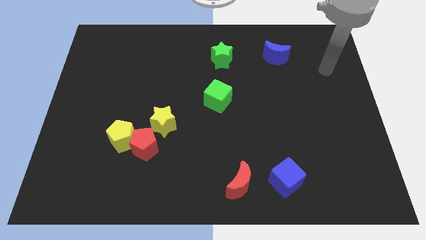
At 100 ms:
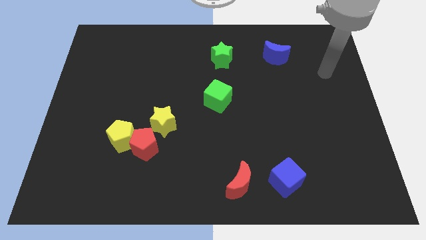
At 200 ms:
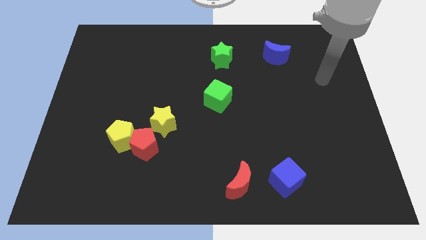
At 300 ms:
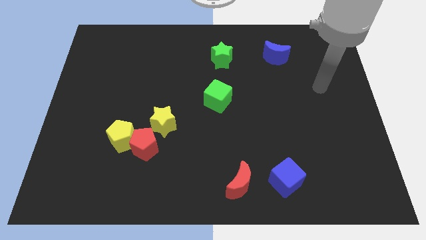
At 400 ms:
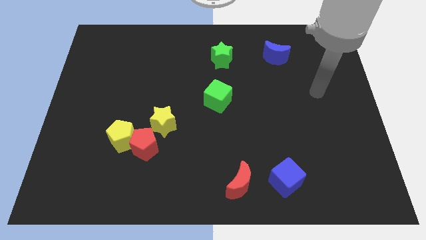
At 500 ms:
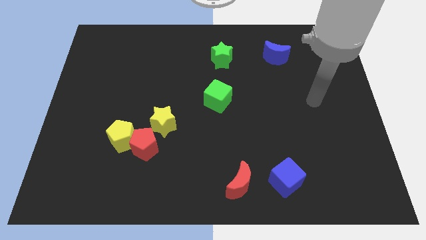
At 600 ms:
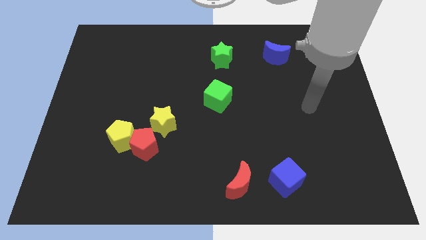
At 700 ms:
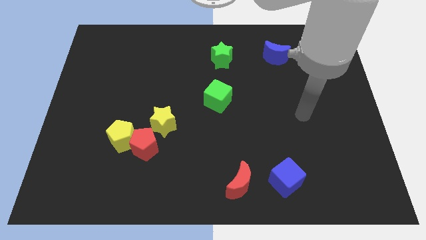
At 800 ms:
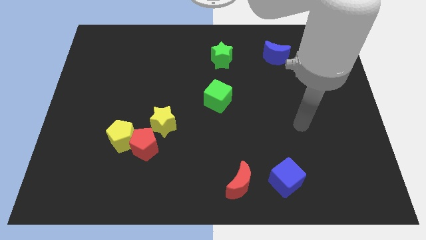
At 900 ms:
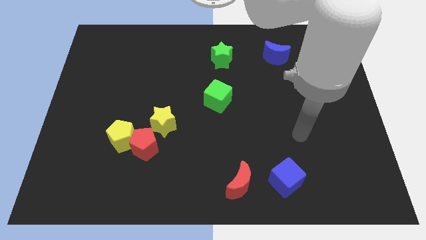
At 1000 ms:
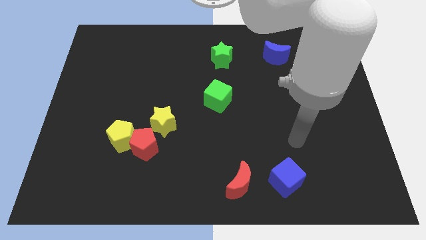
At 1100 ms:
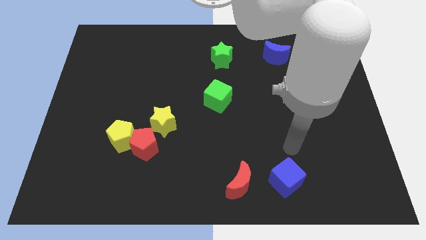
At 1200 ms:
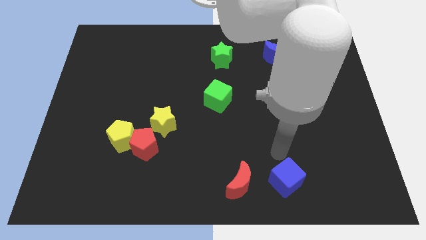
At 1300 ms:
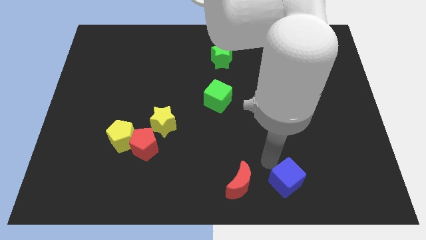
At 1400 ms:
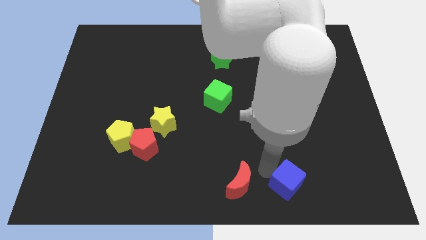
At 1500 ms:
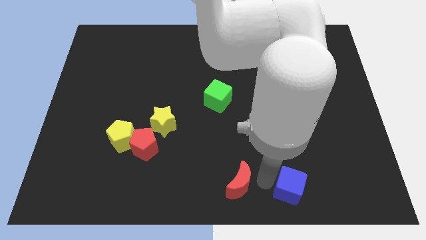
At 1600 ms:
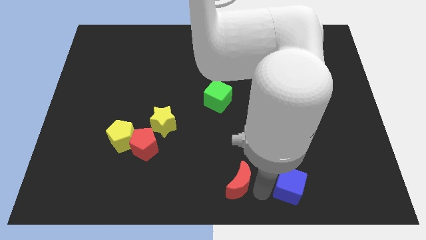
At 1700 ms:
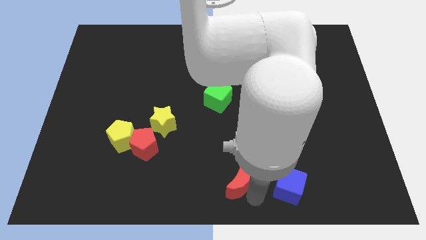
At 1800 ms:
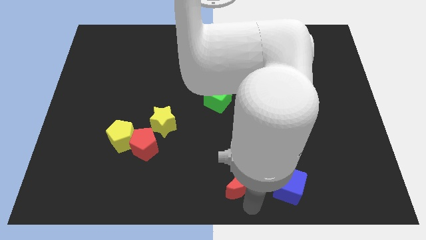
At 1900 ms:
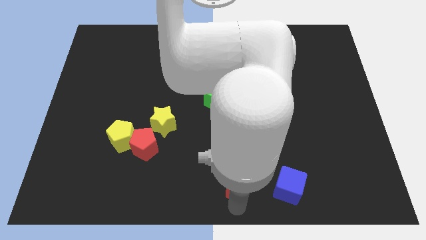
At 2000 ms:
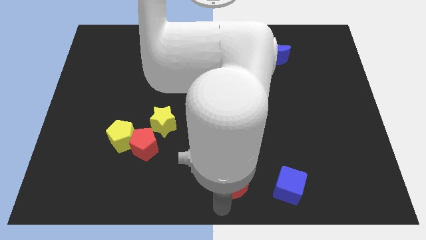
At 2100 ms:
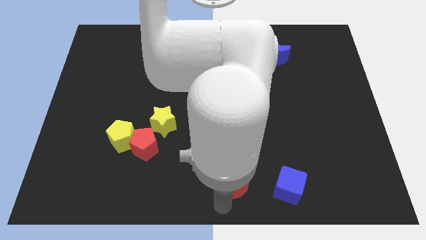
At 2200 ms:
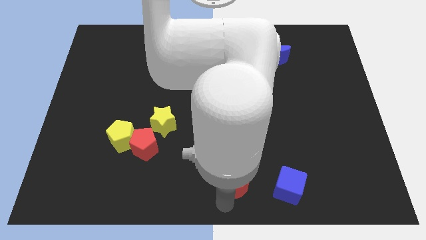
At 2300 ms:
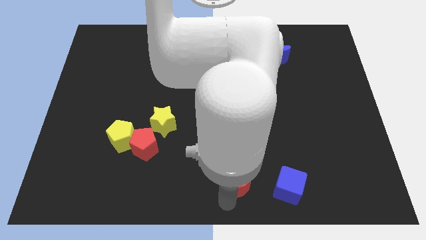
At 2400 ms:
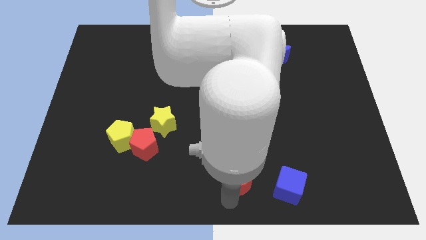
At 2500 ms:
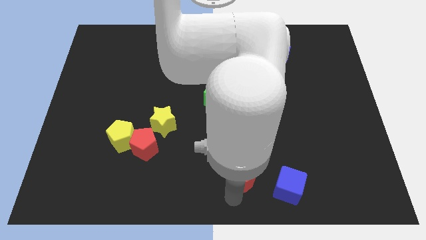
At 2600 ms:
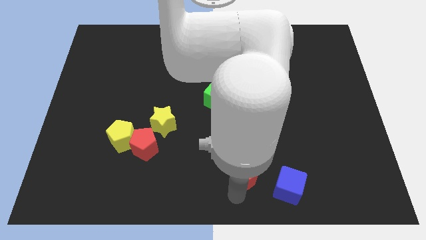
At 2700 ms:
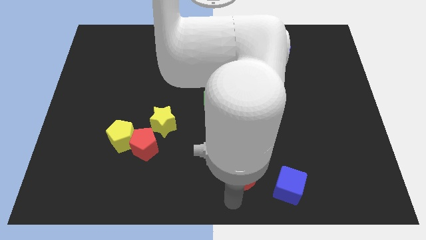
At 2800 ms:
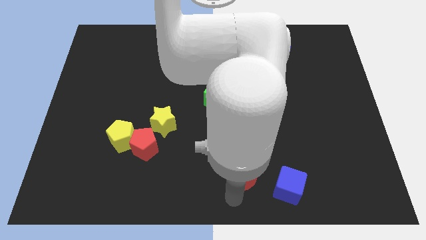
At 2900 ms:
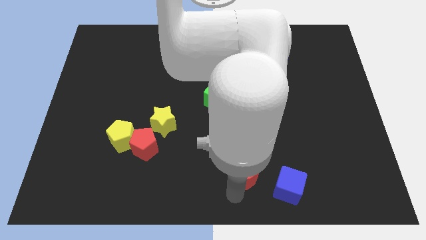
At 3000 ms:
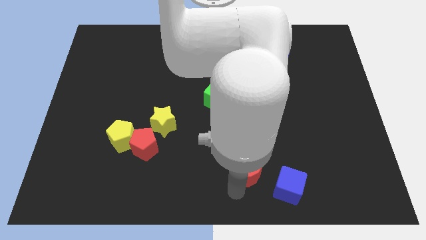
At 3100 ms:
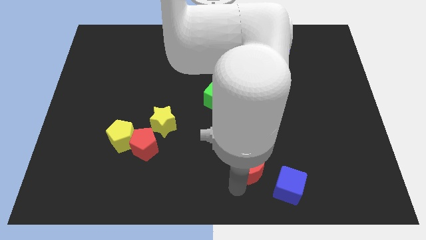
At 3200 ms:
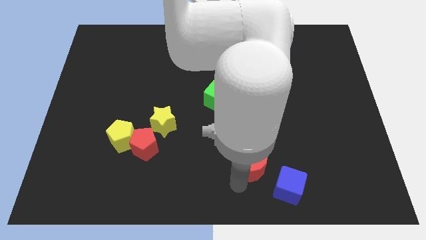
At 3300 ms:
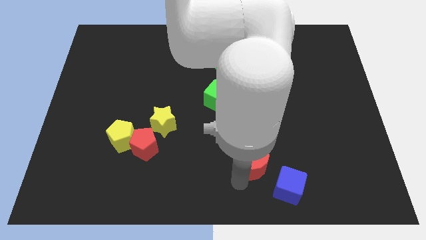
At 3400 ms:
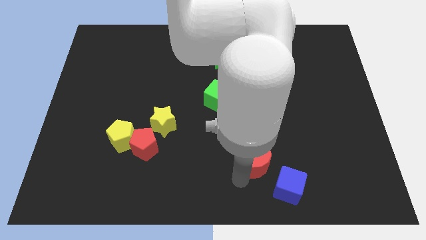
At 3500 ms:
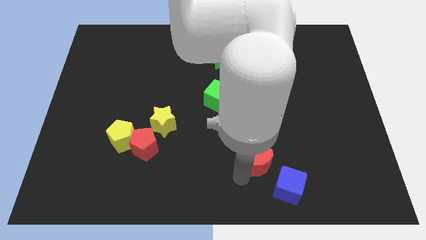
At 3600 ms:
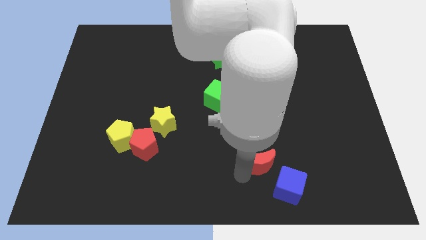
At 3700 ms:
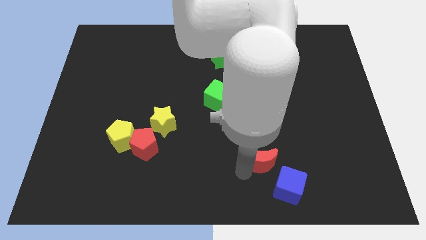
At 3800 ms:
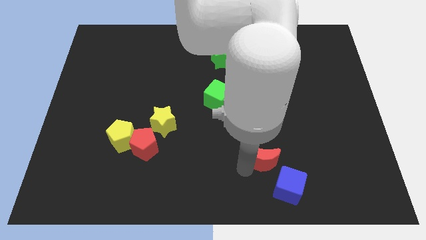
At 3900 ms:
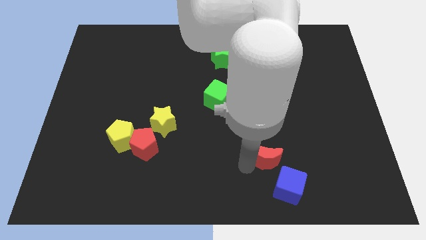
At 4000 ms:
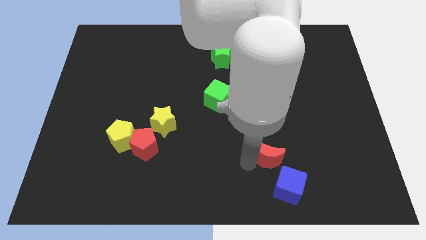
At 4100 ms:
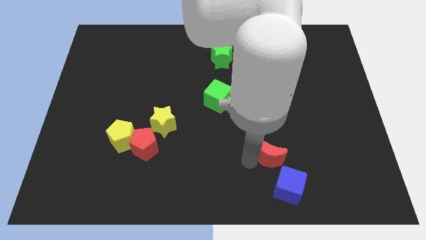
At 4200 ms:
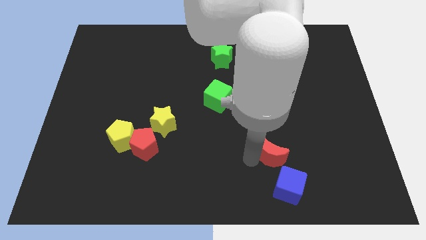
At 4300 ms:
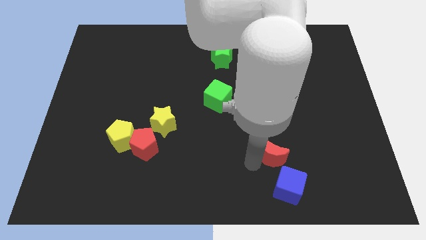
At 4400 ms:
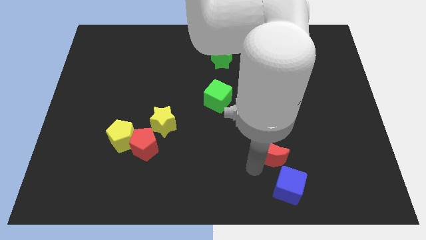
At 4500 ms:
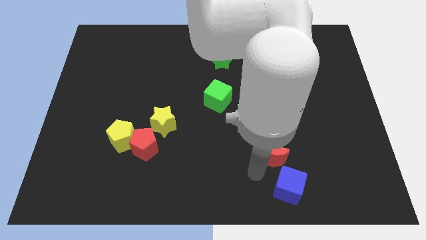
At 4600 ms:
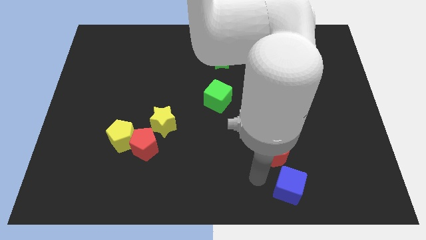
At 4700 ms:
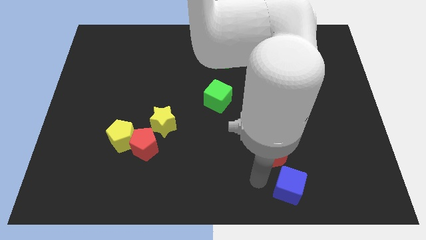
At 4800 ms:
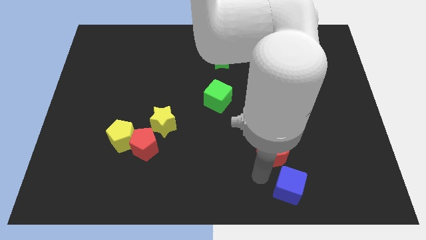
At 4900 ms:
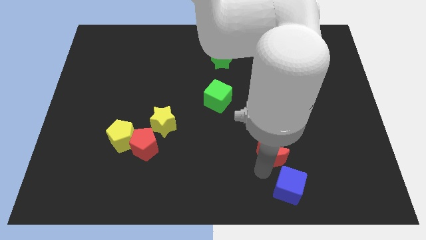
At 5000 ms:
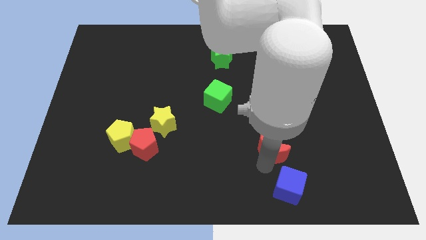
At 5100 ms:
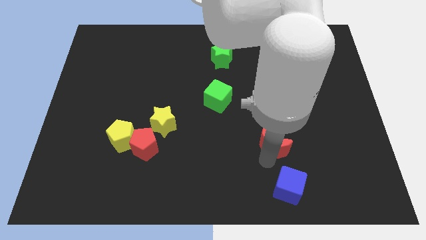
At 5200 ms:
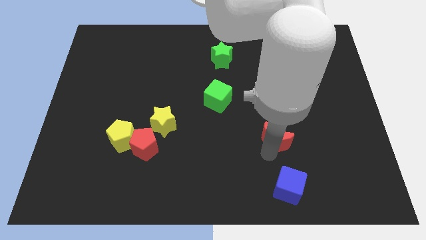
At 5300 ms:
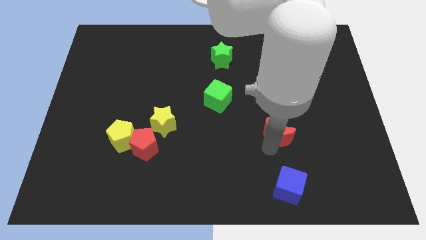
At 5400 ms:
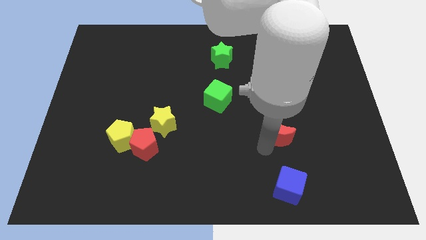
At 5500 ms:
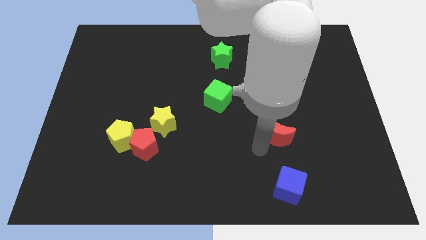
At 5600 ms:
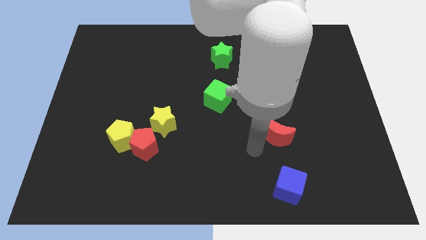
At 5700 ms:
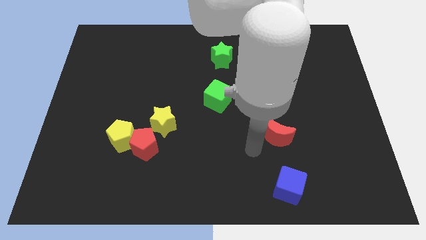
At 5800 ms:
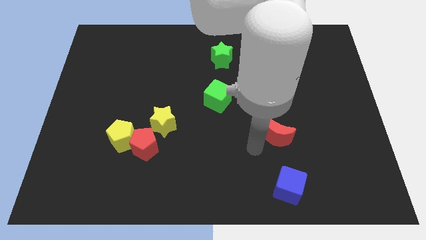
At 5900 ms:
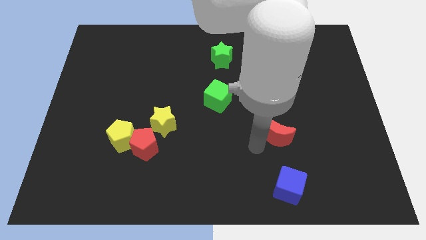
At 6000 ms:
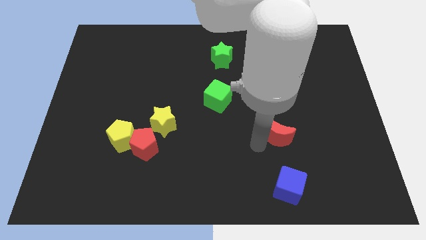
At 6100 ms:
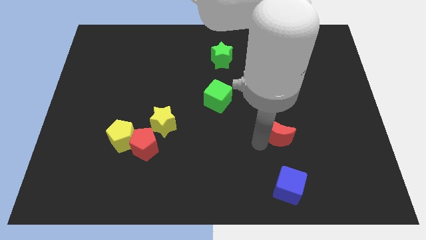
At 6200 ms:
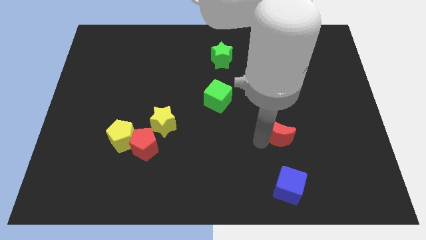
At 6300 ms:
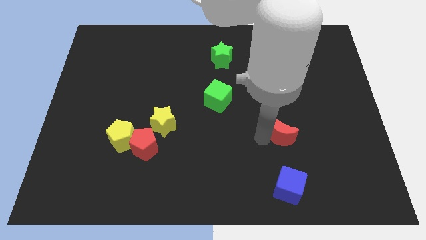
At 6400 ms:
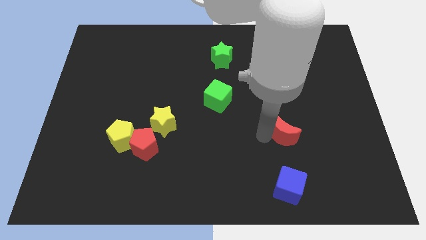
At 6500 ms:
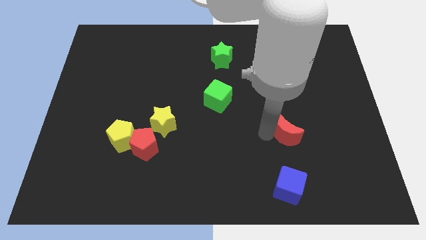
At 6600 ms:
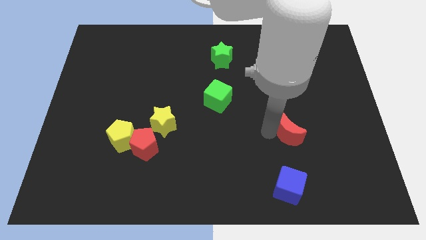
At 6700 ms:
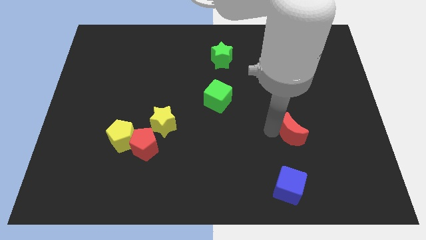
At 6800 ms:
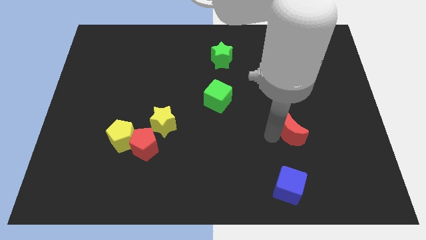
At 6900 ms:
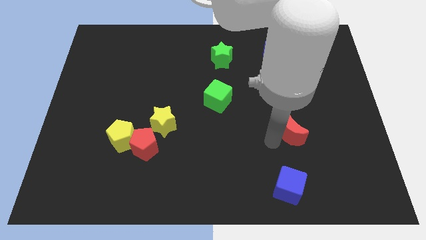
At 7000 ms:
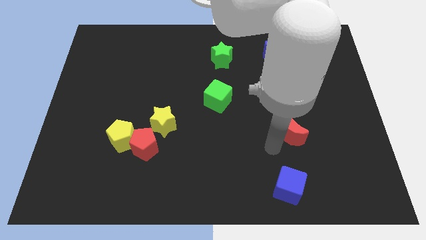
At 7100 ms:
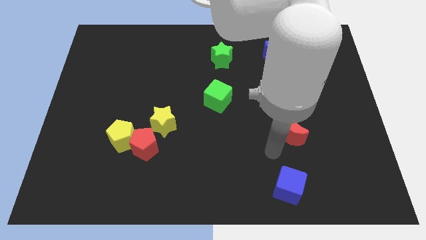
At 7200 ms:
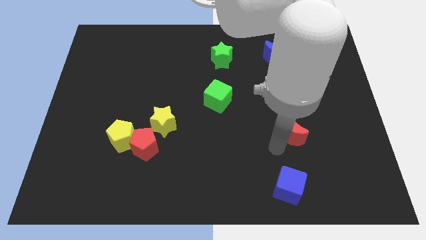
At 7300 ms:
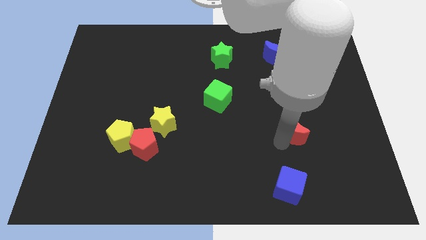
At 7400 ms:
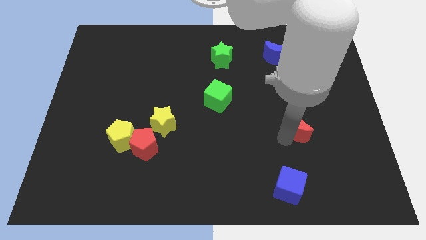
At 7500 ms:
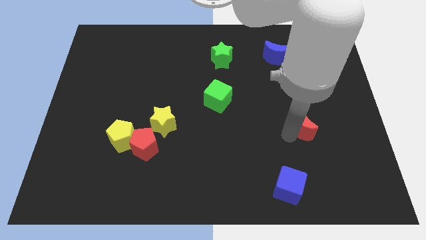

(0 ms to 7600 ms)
push the red moon upwards and then to the right

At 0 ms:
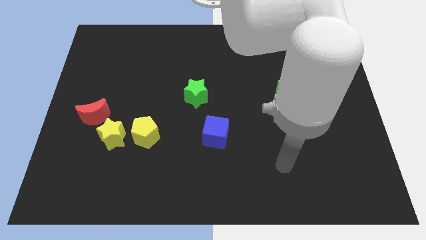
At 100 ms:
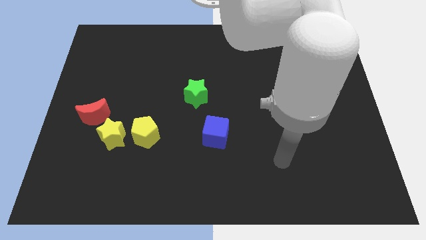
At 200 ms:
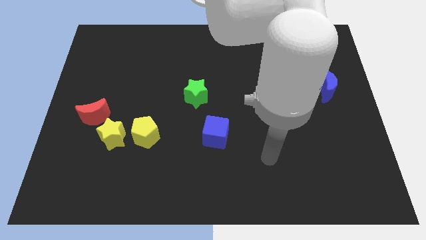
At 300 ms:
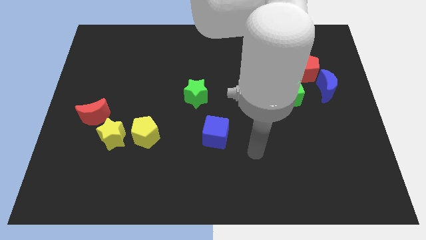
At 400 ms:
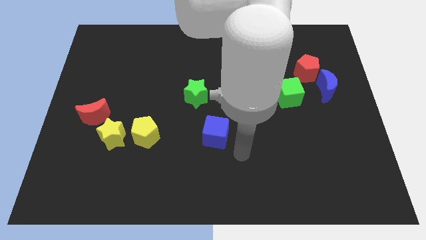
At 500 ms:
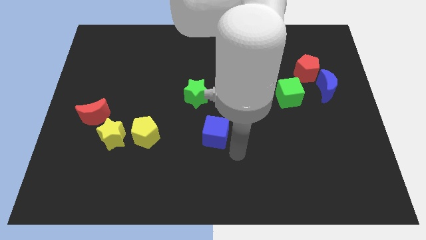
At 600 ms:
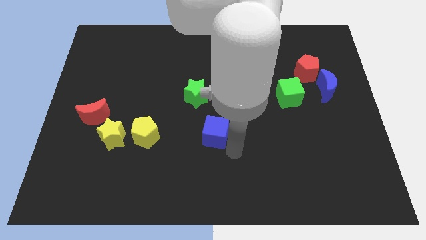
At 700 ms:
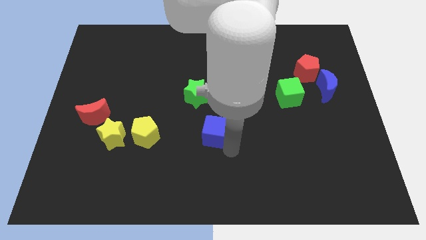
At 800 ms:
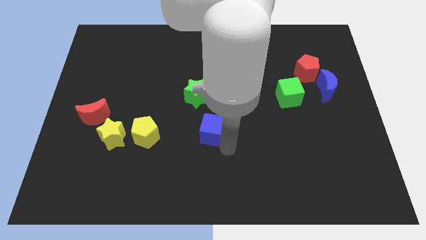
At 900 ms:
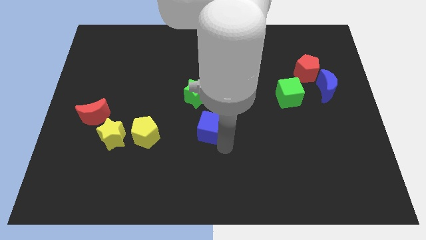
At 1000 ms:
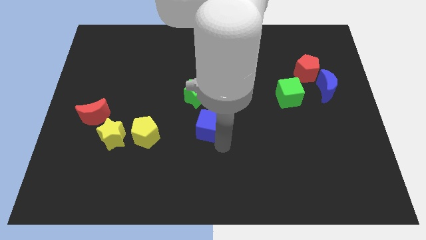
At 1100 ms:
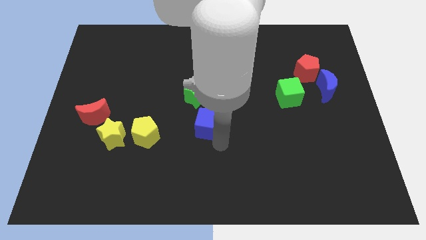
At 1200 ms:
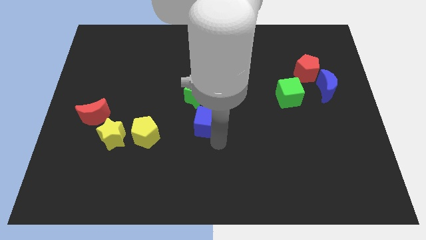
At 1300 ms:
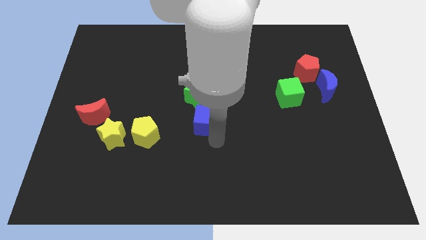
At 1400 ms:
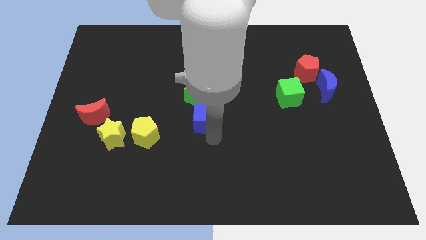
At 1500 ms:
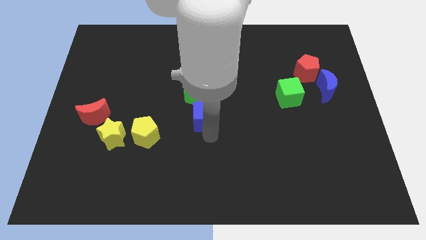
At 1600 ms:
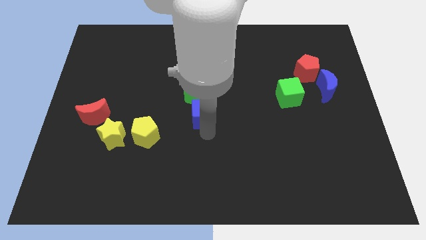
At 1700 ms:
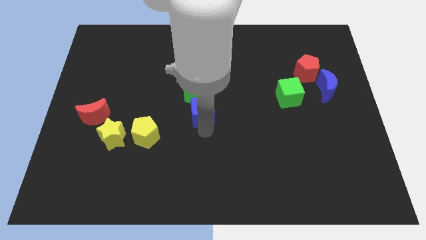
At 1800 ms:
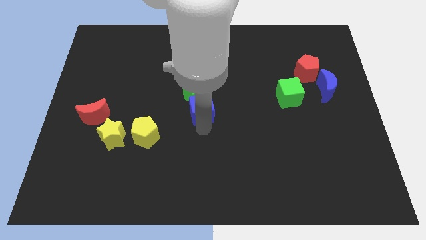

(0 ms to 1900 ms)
slide the blue cube upwards and left diagonally a little
